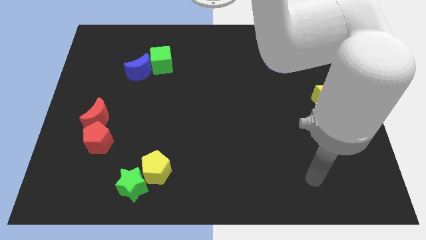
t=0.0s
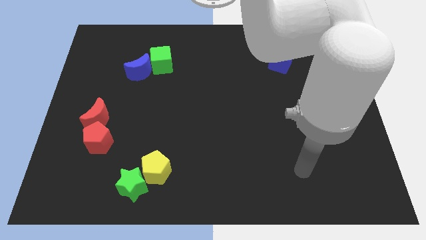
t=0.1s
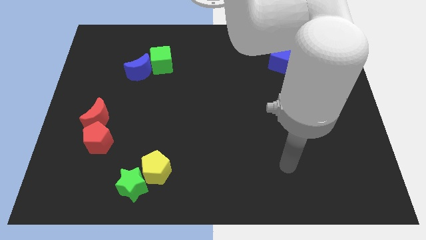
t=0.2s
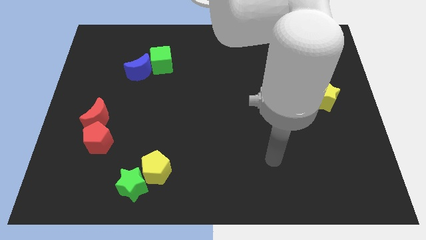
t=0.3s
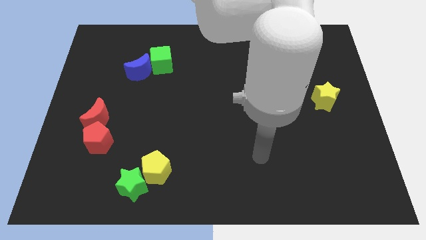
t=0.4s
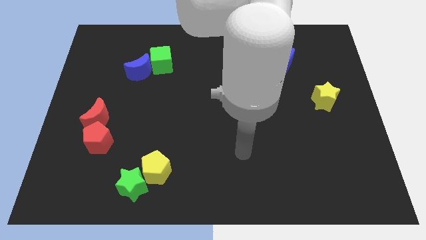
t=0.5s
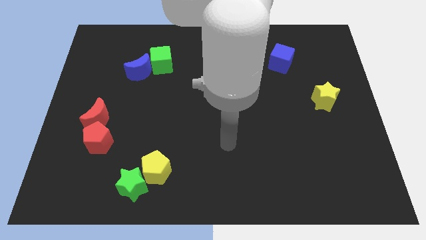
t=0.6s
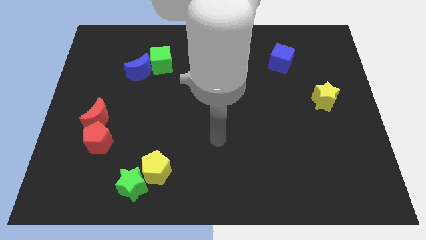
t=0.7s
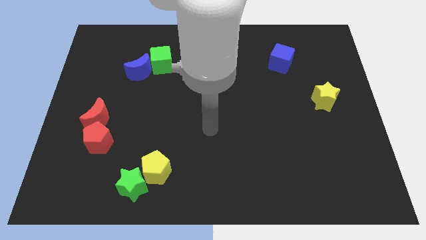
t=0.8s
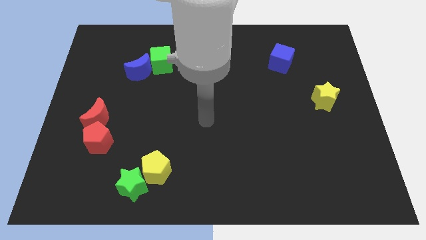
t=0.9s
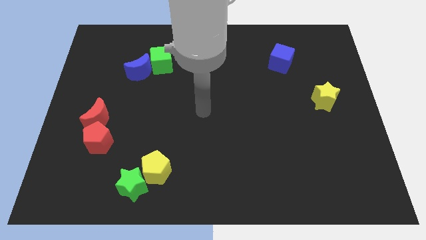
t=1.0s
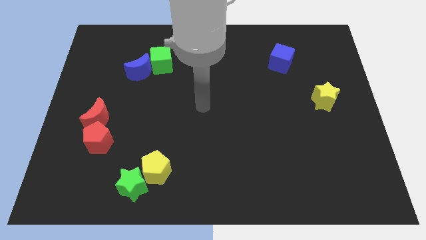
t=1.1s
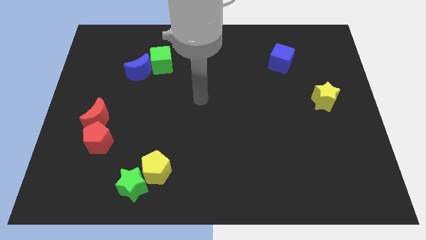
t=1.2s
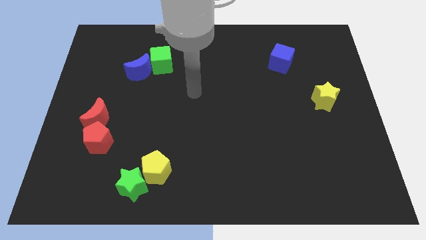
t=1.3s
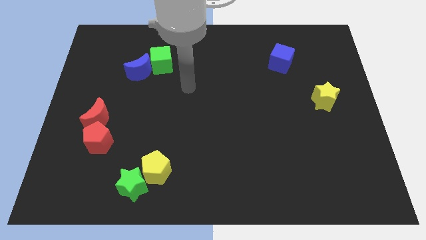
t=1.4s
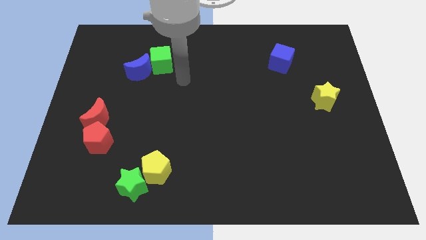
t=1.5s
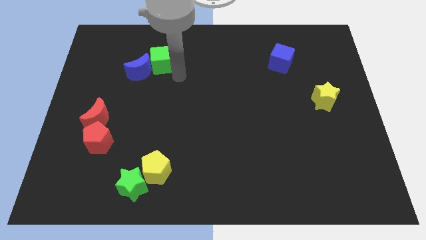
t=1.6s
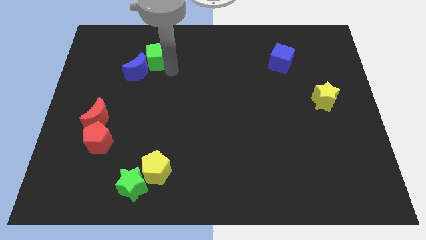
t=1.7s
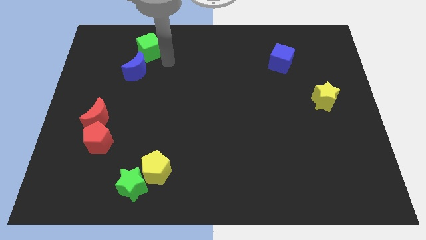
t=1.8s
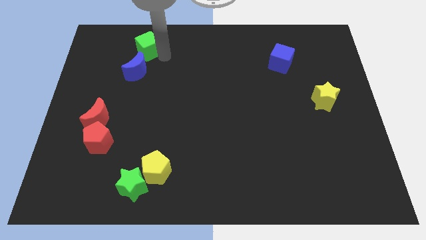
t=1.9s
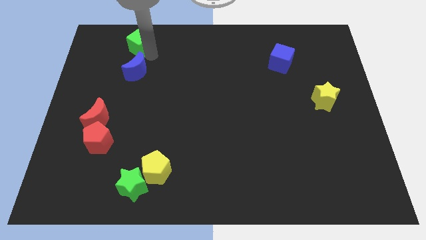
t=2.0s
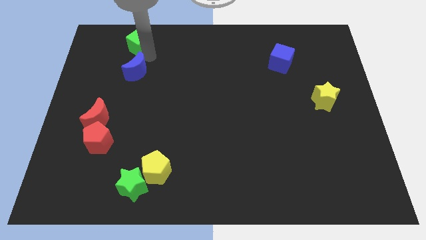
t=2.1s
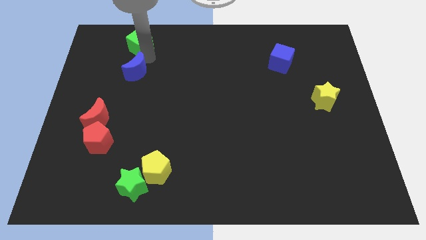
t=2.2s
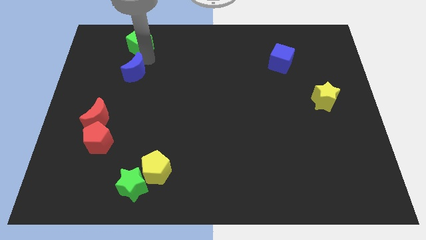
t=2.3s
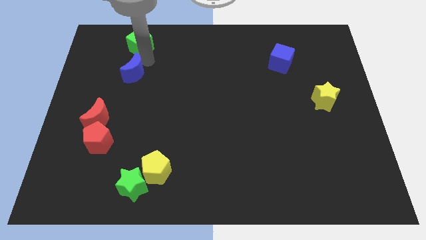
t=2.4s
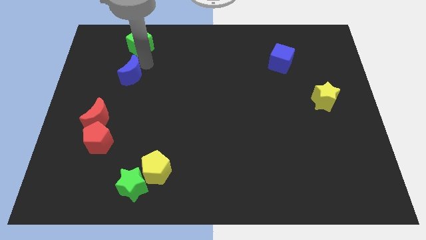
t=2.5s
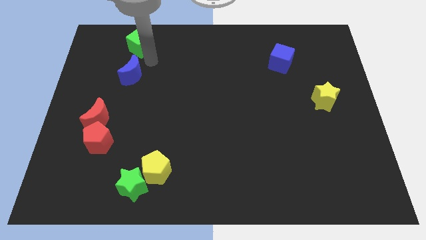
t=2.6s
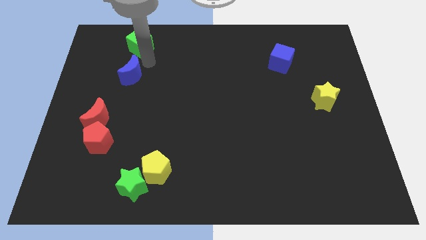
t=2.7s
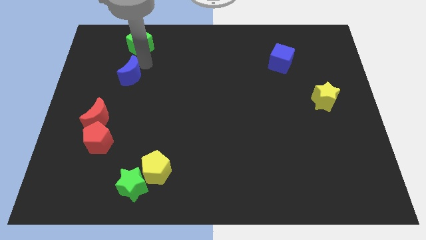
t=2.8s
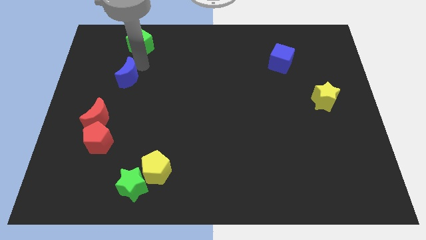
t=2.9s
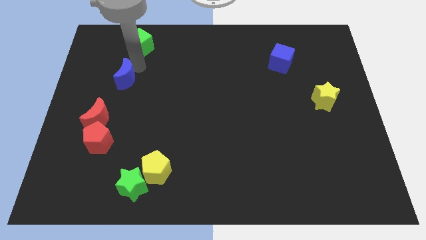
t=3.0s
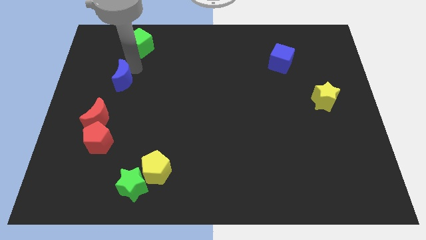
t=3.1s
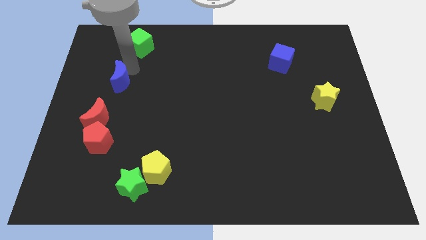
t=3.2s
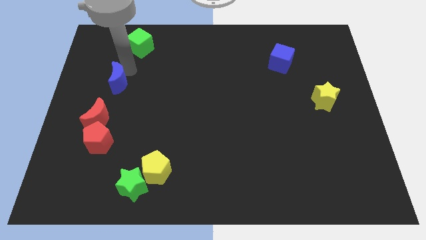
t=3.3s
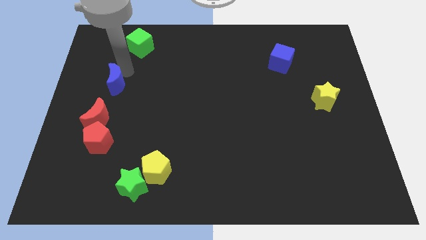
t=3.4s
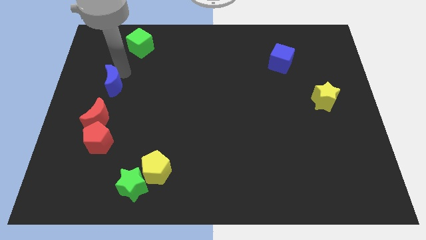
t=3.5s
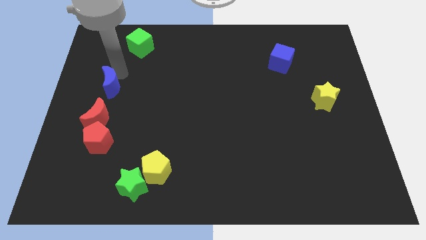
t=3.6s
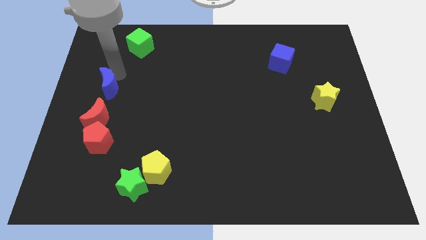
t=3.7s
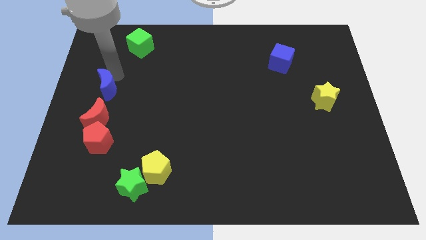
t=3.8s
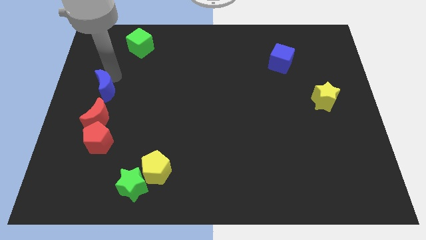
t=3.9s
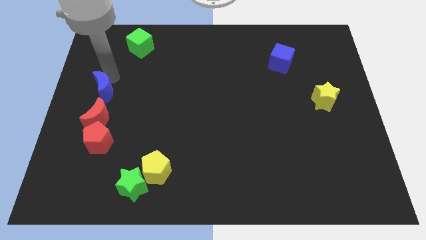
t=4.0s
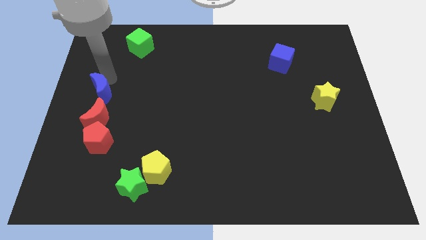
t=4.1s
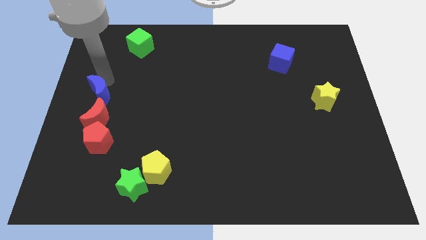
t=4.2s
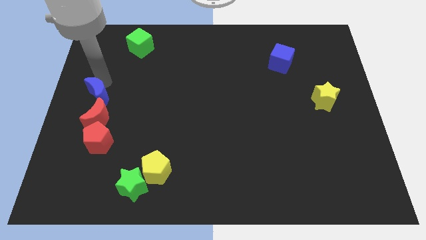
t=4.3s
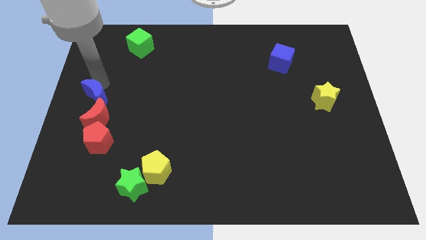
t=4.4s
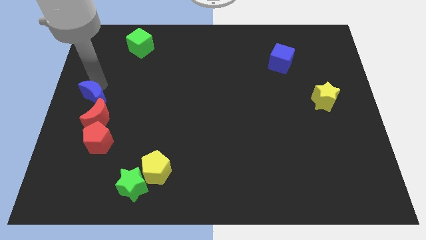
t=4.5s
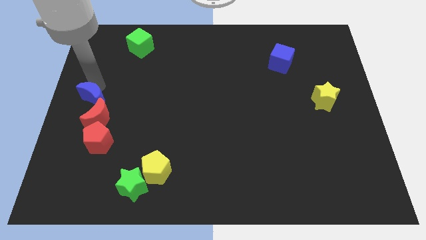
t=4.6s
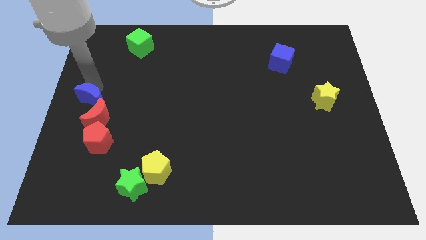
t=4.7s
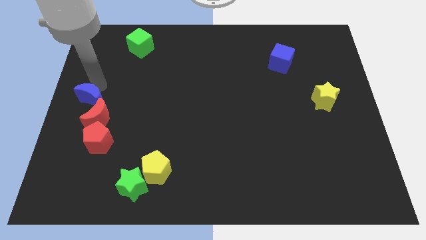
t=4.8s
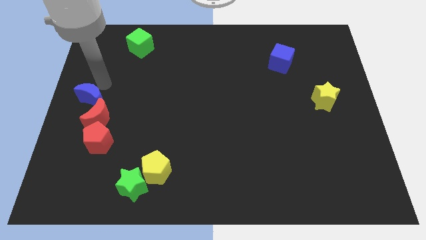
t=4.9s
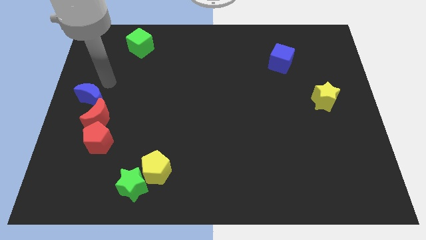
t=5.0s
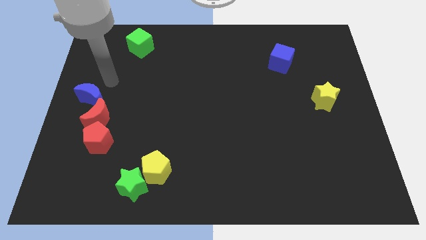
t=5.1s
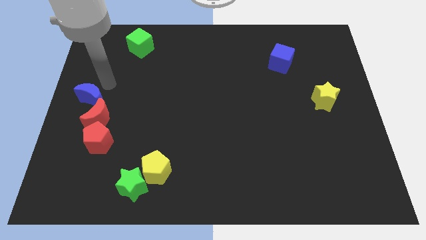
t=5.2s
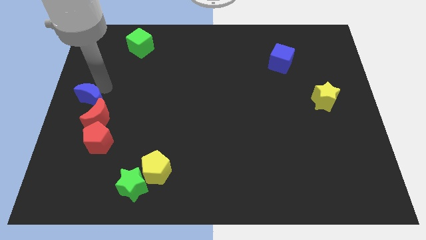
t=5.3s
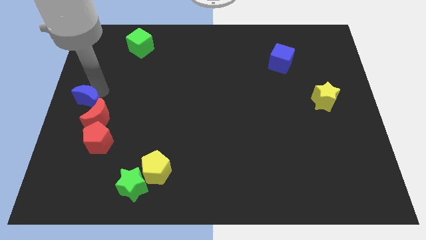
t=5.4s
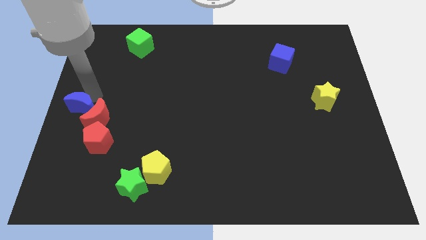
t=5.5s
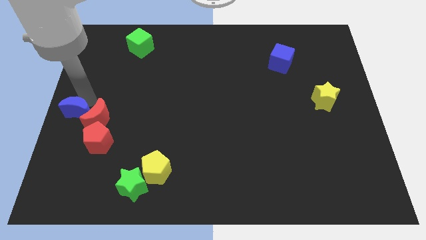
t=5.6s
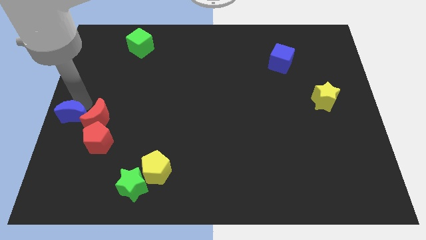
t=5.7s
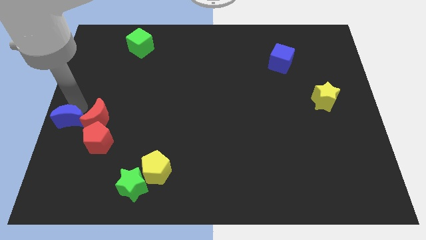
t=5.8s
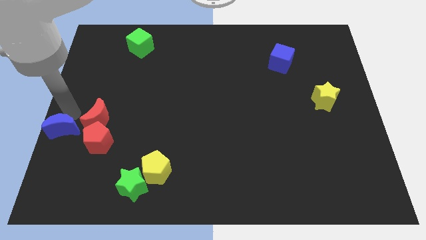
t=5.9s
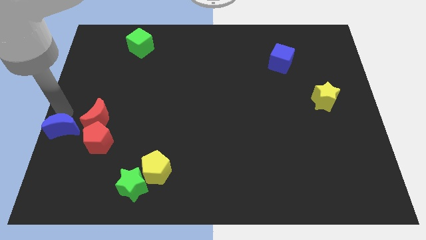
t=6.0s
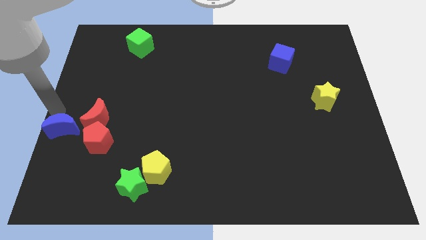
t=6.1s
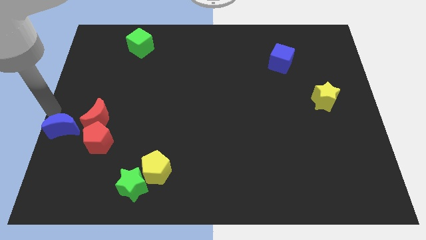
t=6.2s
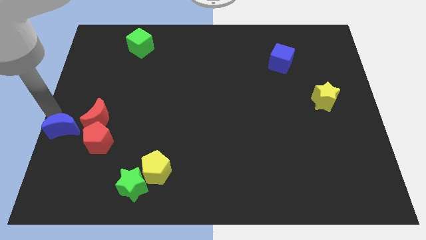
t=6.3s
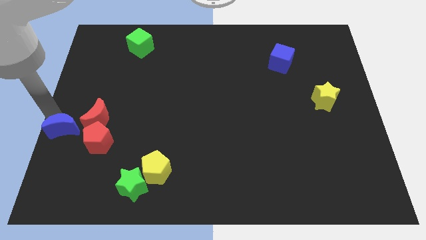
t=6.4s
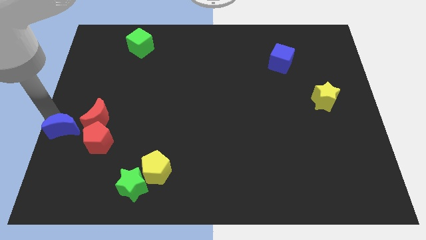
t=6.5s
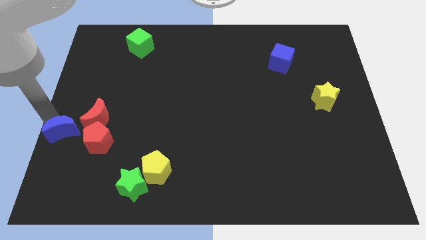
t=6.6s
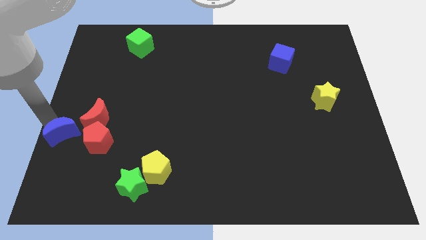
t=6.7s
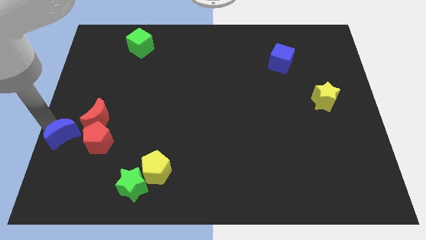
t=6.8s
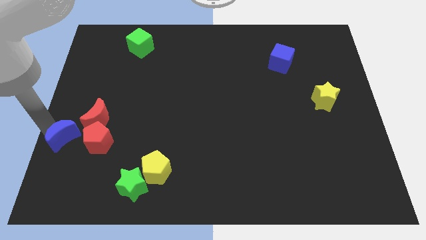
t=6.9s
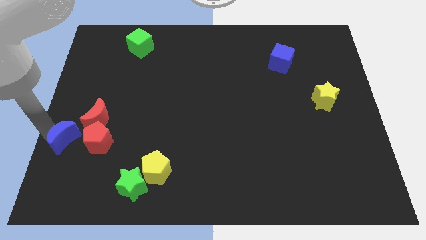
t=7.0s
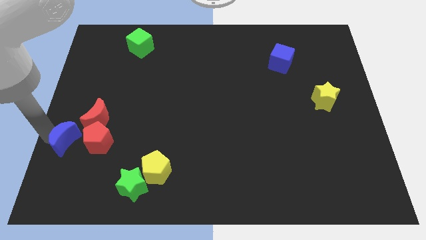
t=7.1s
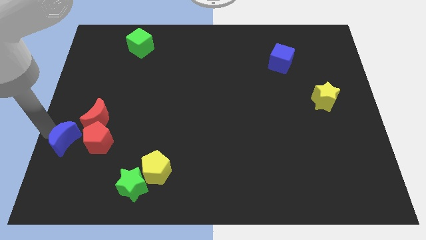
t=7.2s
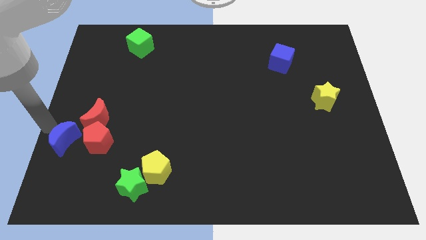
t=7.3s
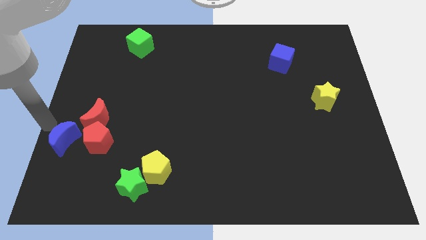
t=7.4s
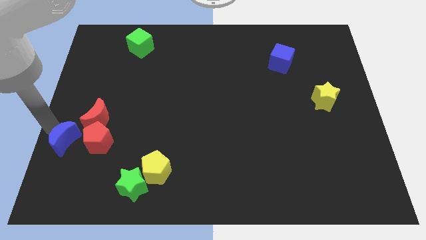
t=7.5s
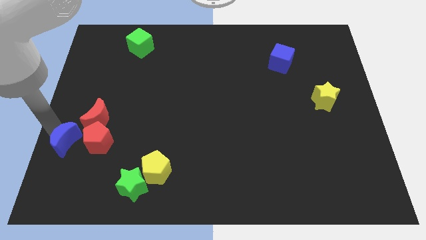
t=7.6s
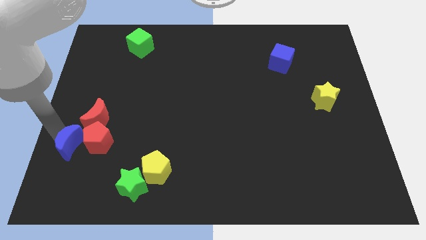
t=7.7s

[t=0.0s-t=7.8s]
slide the blue moon below the red moon
